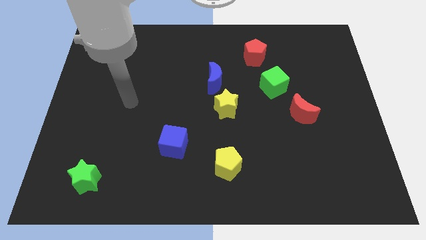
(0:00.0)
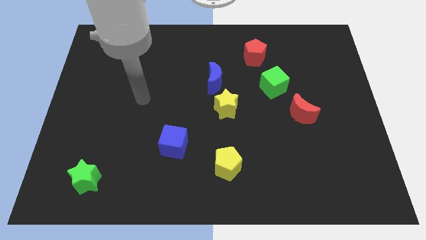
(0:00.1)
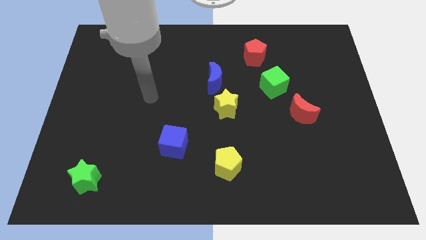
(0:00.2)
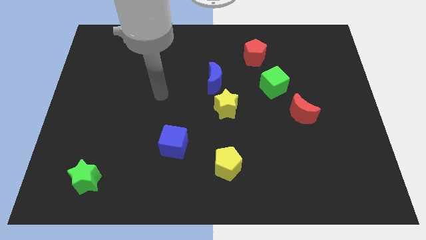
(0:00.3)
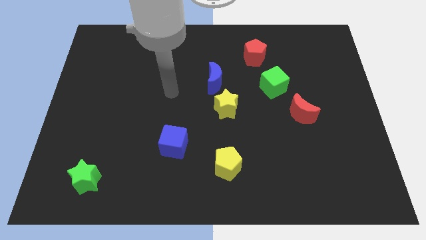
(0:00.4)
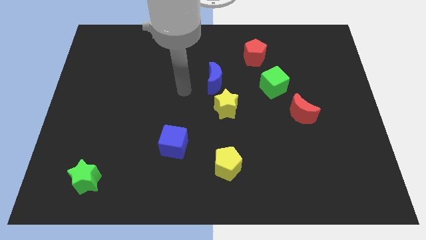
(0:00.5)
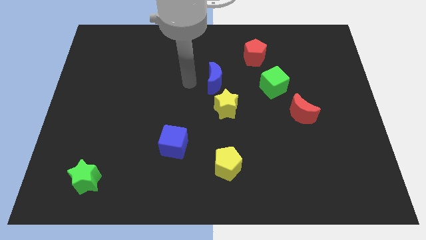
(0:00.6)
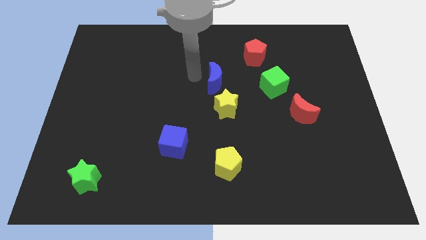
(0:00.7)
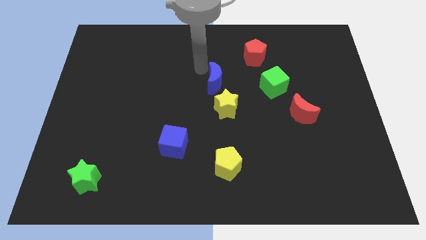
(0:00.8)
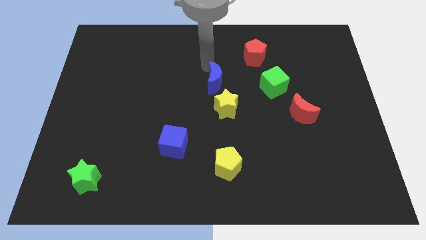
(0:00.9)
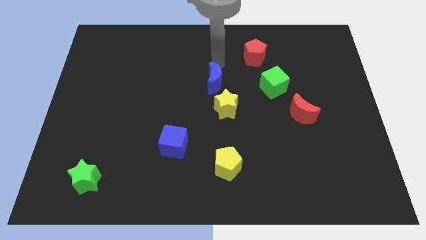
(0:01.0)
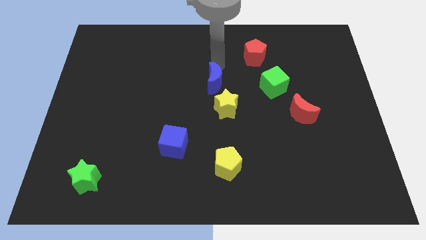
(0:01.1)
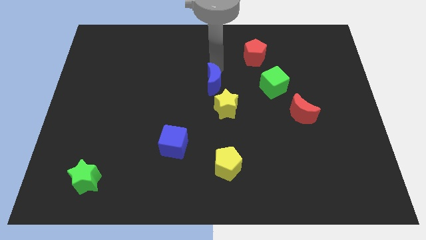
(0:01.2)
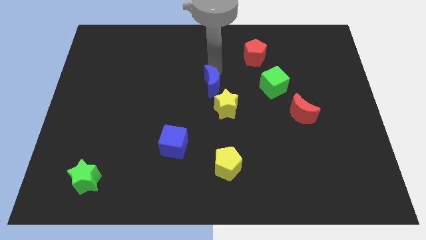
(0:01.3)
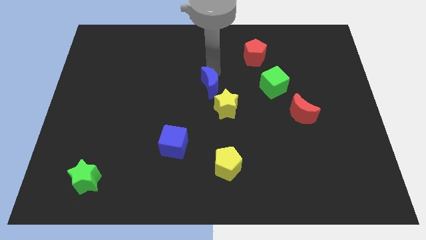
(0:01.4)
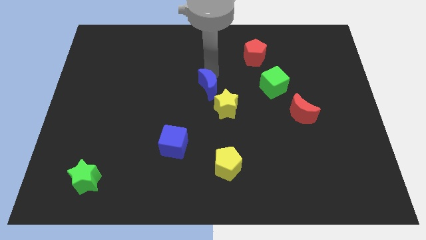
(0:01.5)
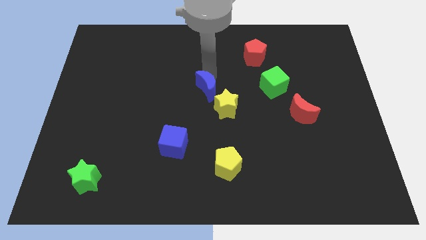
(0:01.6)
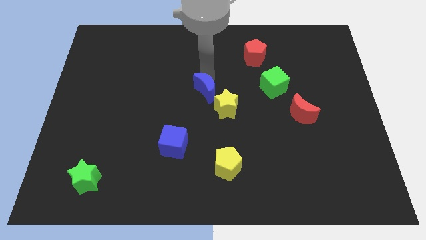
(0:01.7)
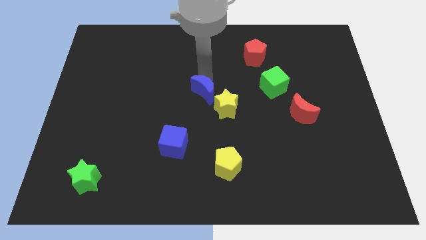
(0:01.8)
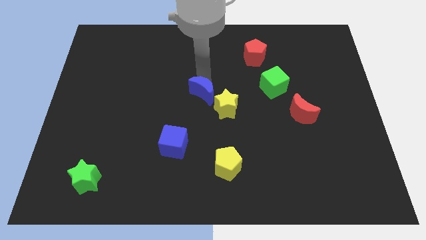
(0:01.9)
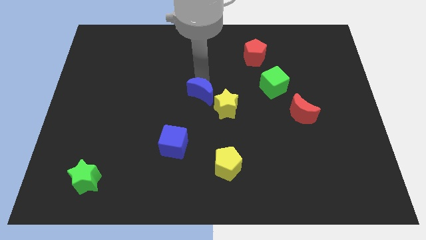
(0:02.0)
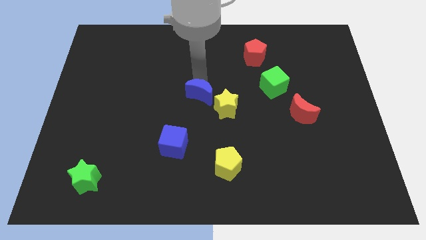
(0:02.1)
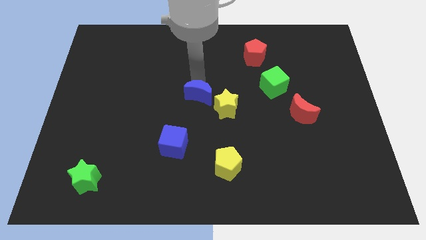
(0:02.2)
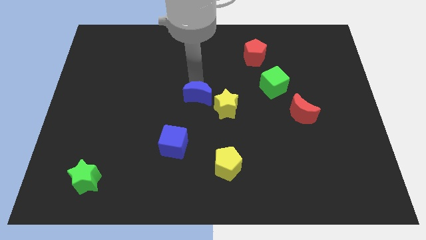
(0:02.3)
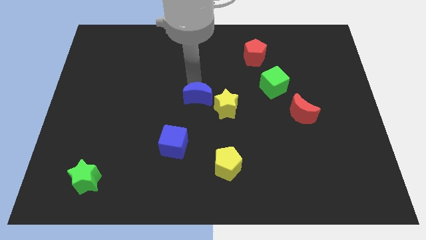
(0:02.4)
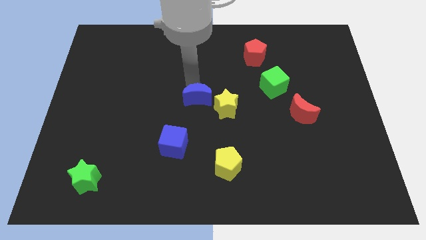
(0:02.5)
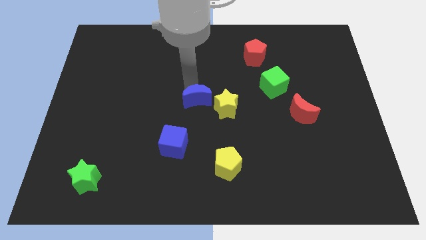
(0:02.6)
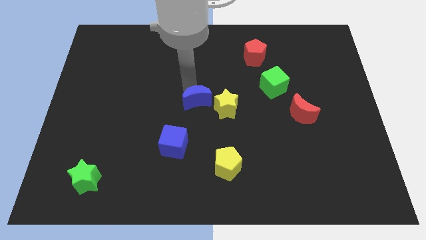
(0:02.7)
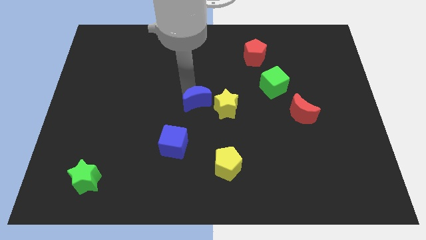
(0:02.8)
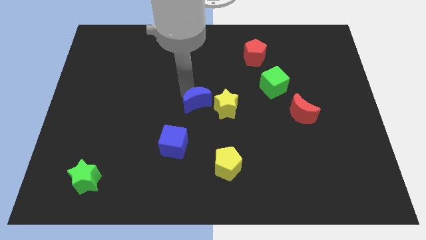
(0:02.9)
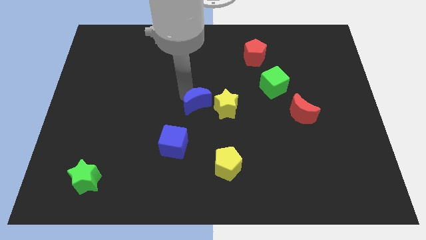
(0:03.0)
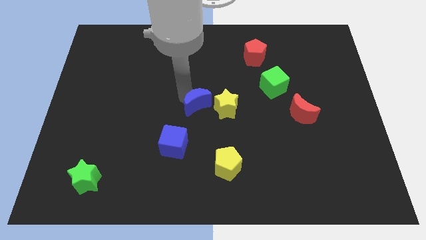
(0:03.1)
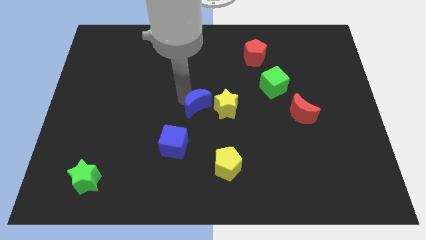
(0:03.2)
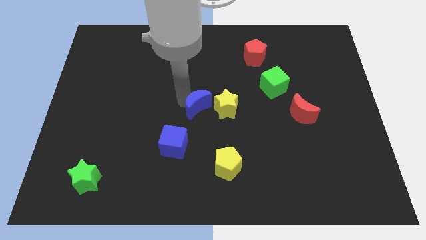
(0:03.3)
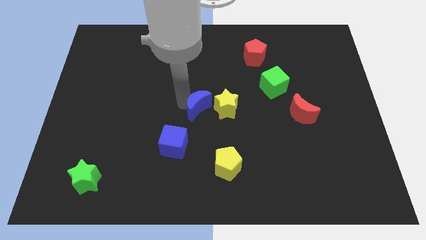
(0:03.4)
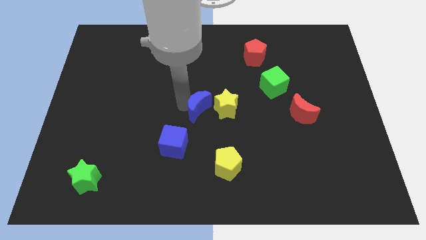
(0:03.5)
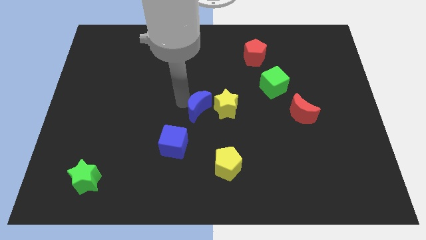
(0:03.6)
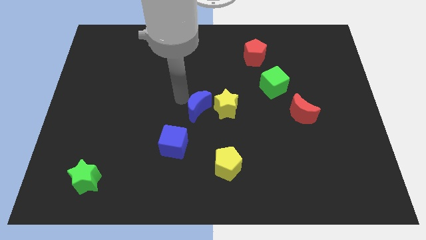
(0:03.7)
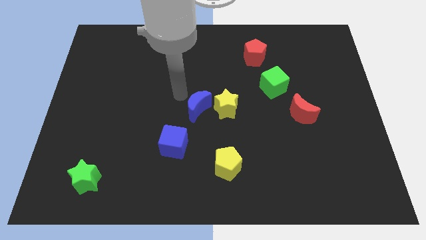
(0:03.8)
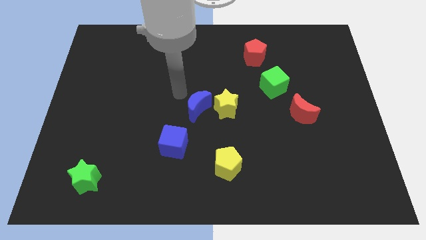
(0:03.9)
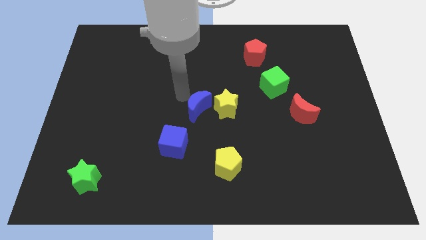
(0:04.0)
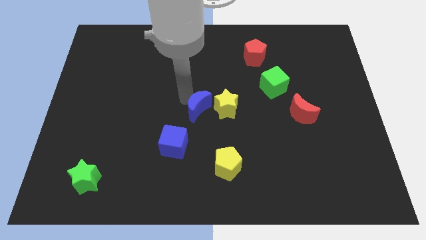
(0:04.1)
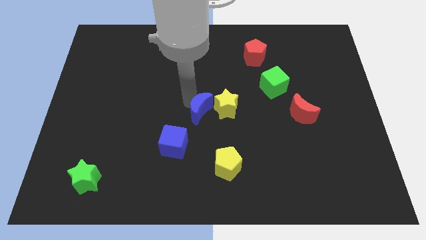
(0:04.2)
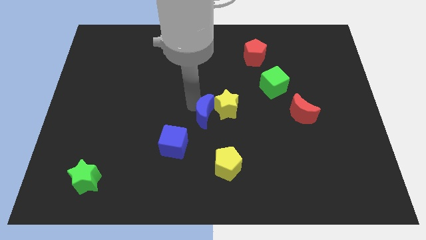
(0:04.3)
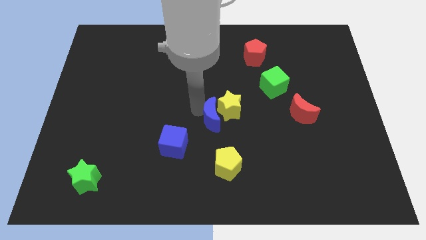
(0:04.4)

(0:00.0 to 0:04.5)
put the blue moon to the top side of the yellow pentagon

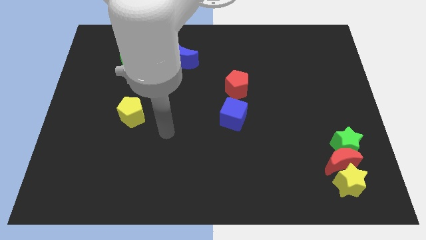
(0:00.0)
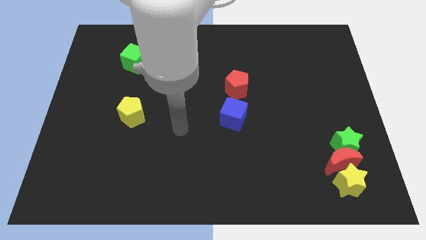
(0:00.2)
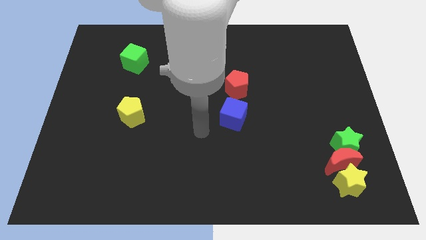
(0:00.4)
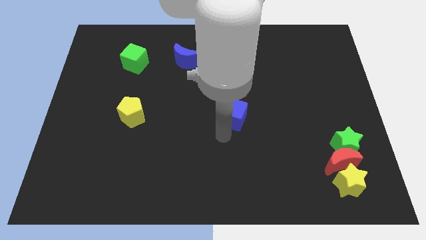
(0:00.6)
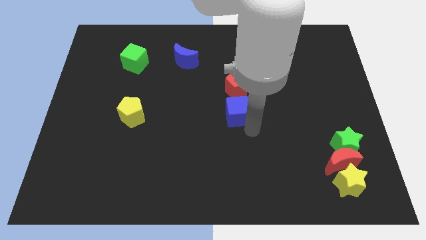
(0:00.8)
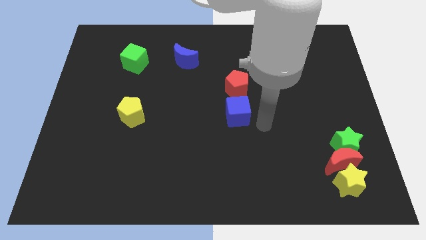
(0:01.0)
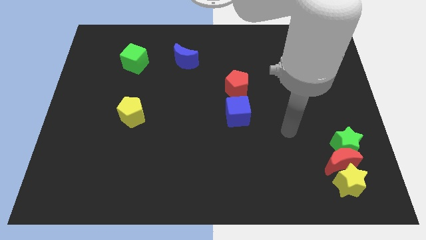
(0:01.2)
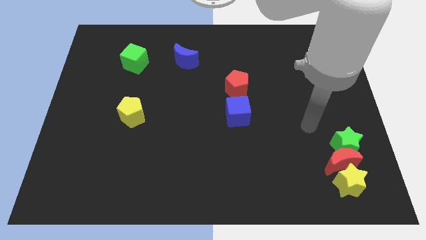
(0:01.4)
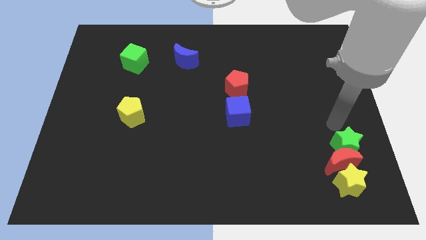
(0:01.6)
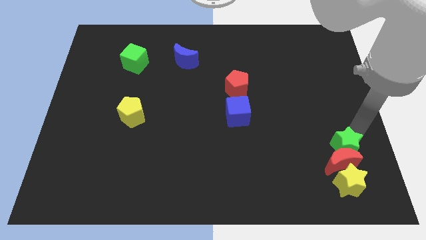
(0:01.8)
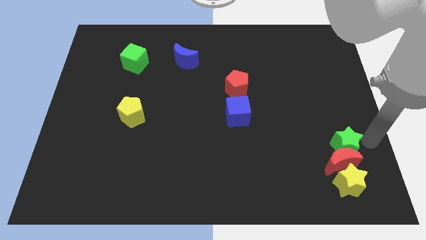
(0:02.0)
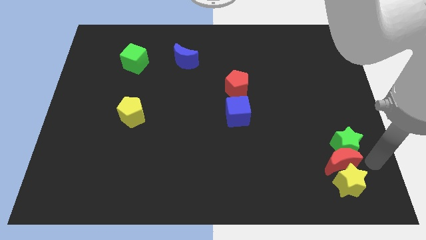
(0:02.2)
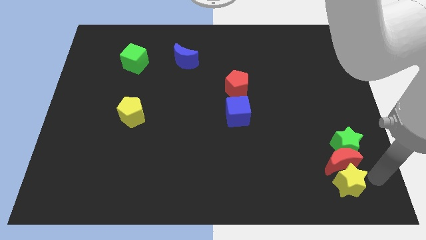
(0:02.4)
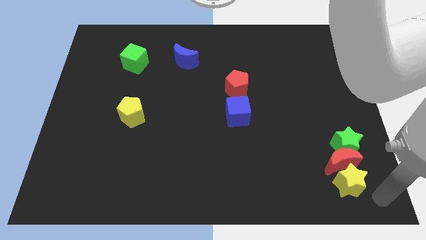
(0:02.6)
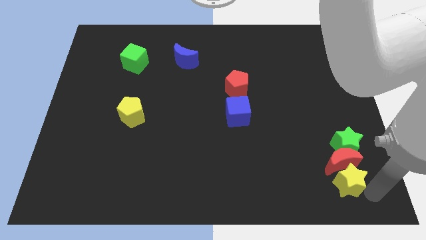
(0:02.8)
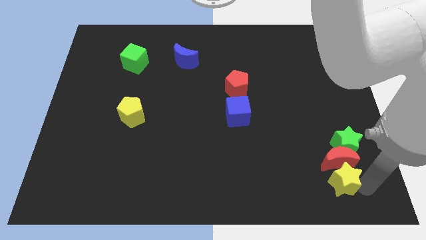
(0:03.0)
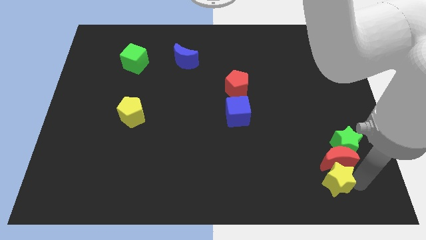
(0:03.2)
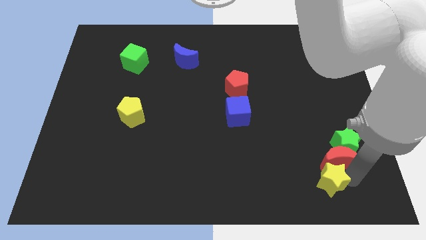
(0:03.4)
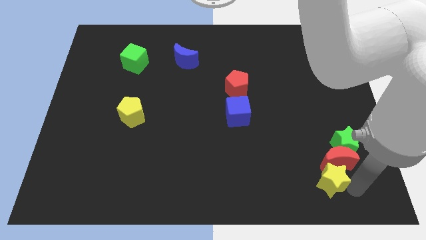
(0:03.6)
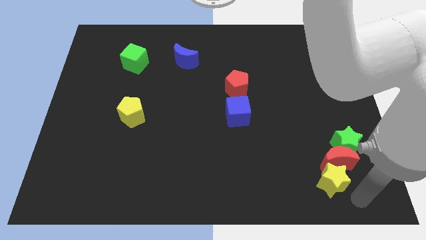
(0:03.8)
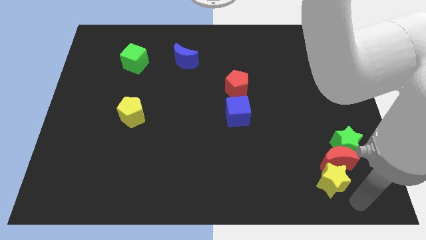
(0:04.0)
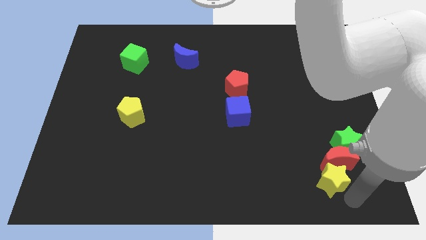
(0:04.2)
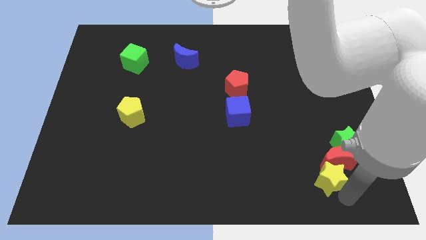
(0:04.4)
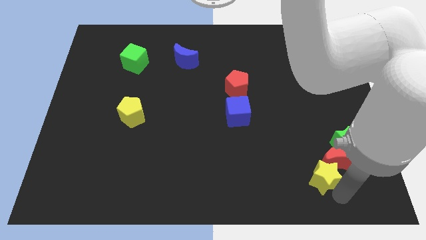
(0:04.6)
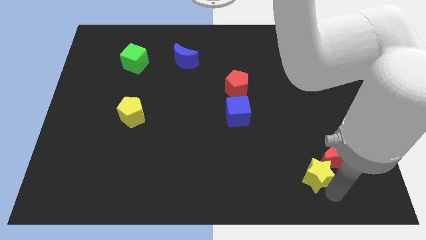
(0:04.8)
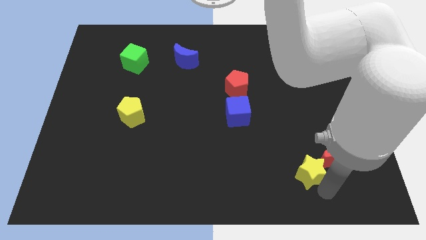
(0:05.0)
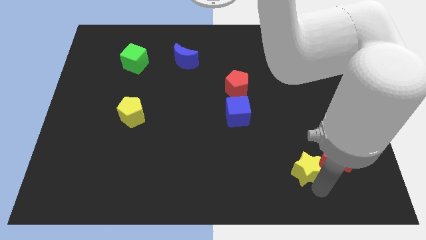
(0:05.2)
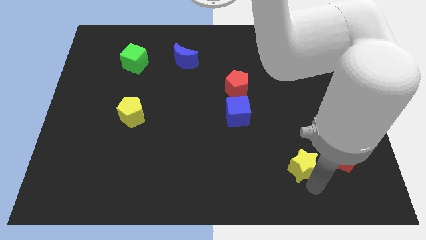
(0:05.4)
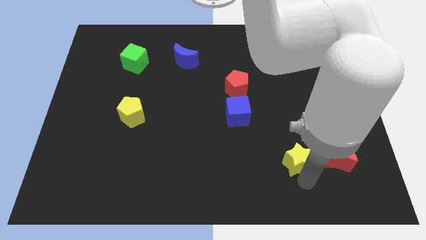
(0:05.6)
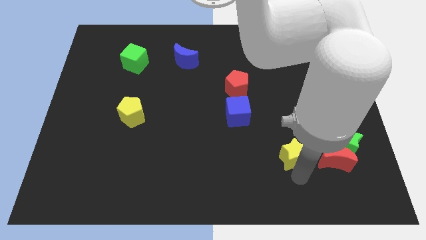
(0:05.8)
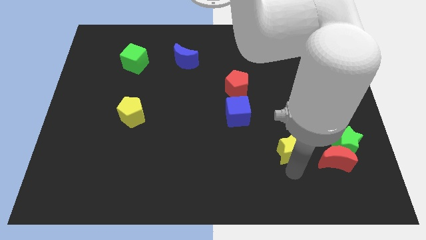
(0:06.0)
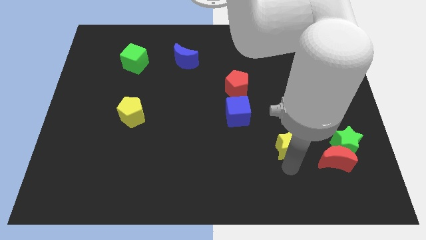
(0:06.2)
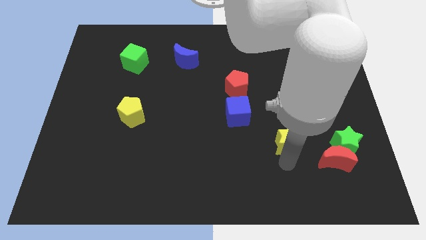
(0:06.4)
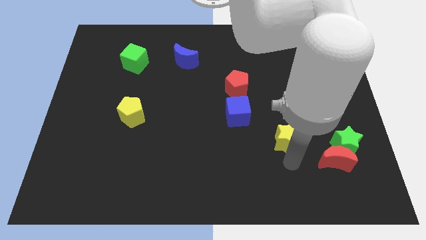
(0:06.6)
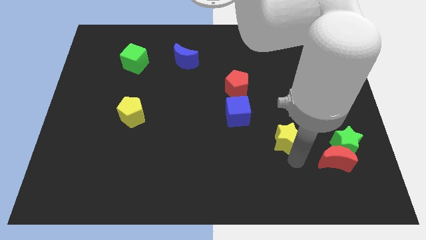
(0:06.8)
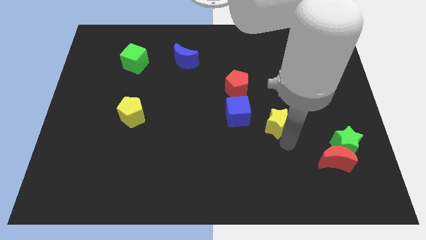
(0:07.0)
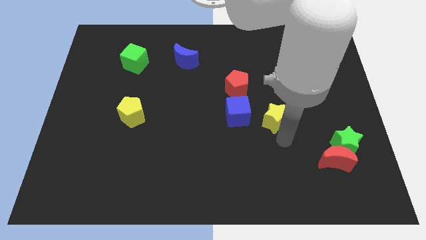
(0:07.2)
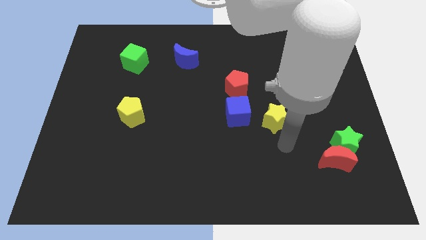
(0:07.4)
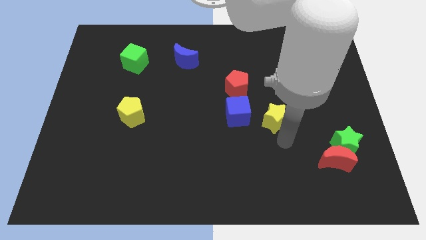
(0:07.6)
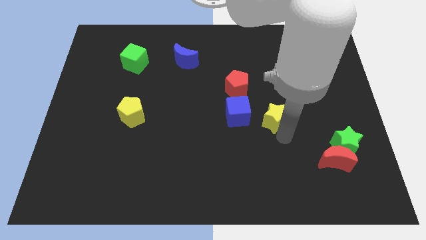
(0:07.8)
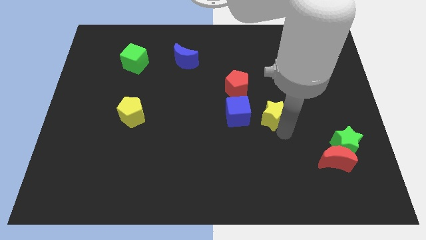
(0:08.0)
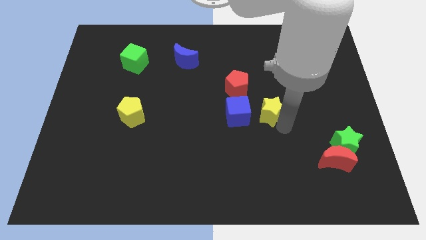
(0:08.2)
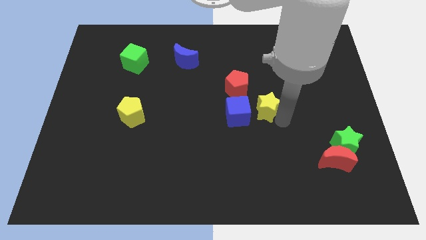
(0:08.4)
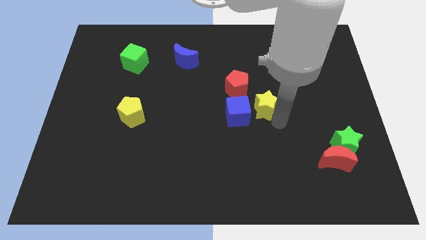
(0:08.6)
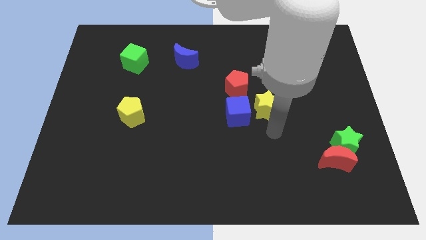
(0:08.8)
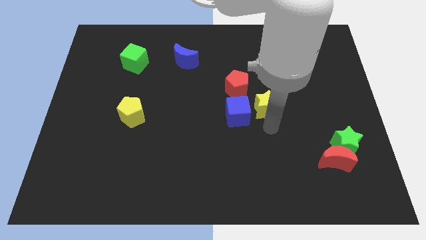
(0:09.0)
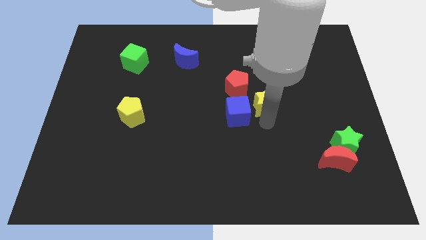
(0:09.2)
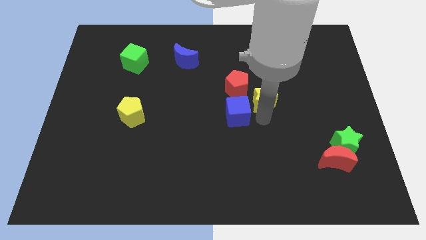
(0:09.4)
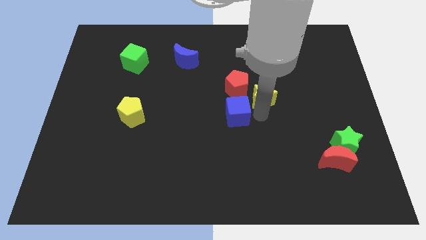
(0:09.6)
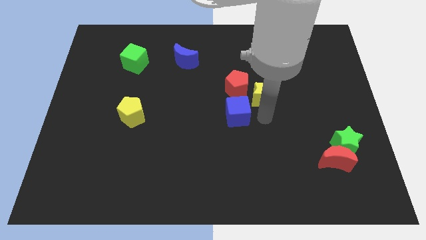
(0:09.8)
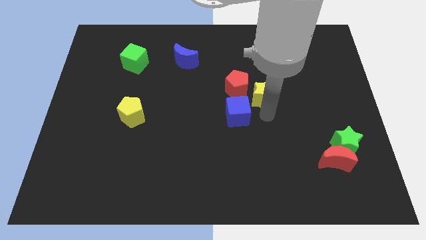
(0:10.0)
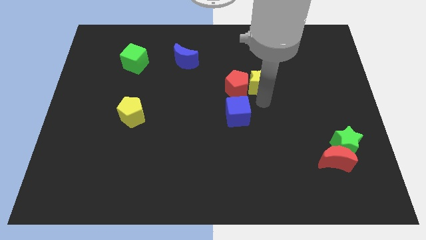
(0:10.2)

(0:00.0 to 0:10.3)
put the yellow star diagonally up and to the right of the red pentagon
